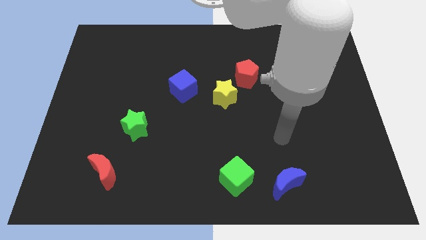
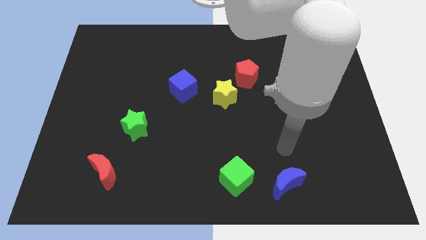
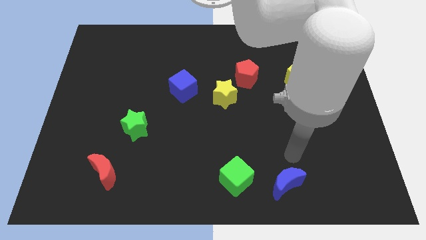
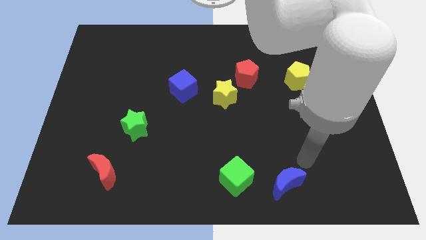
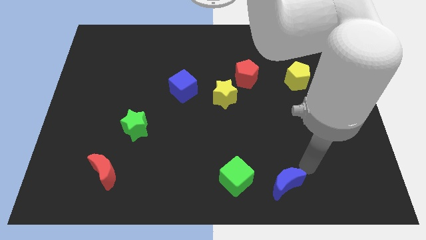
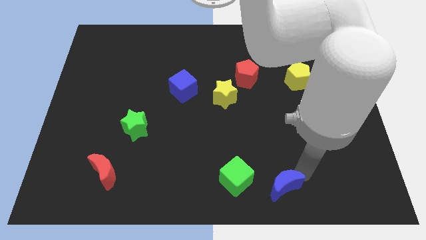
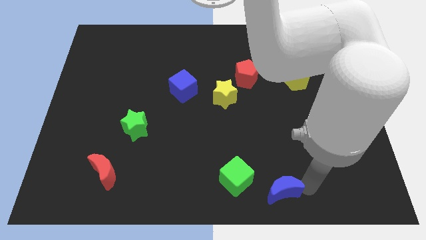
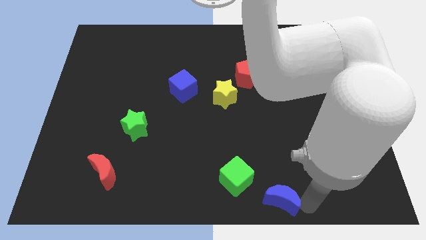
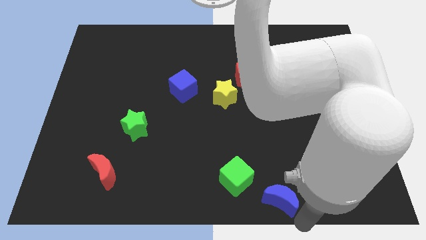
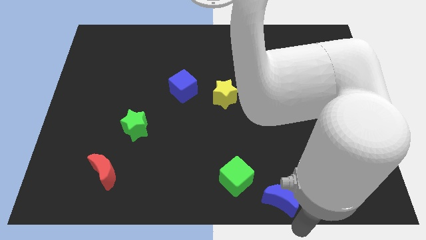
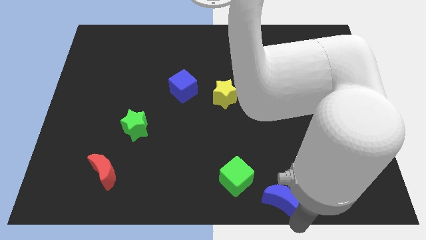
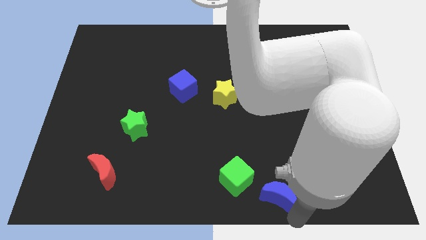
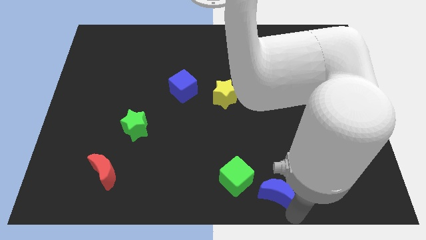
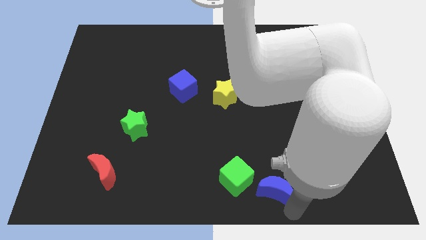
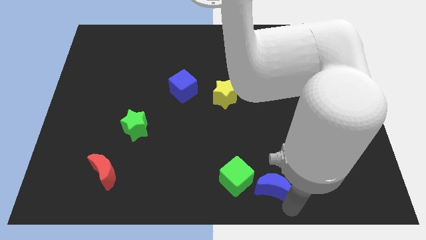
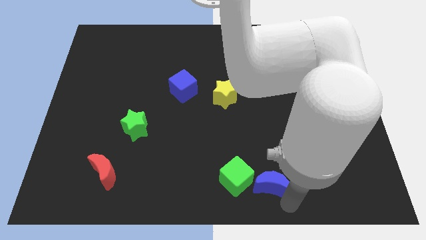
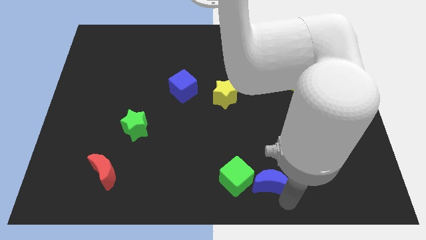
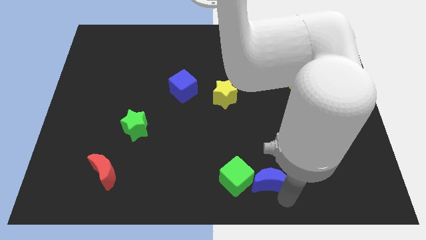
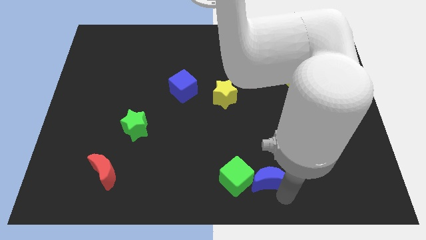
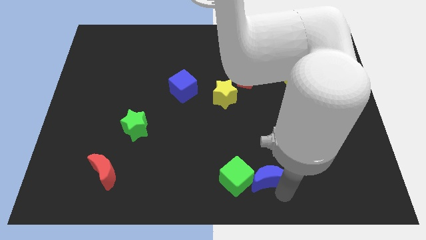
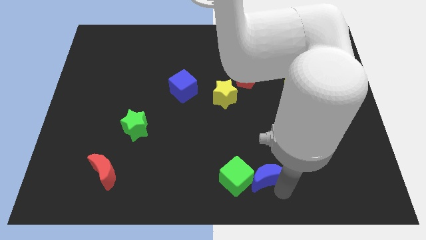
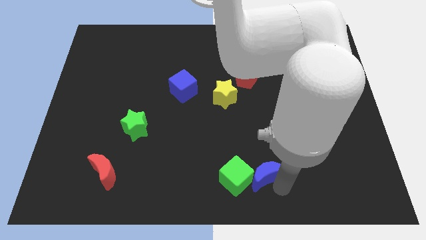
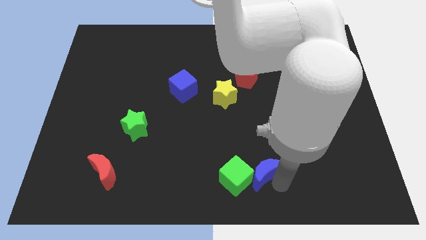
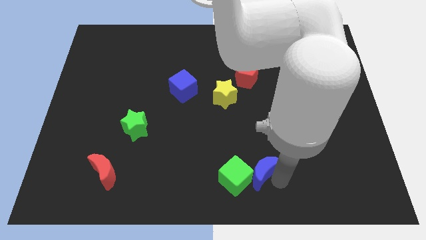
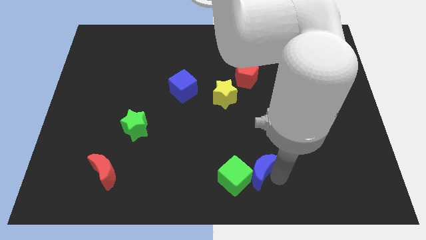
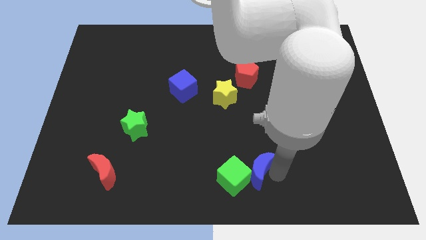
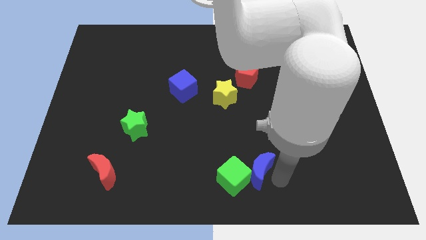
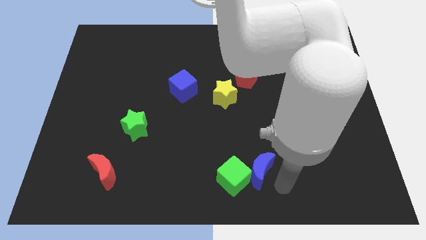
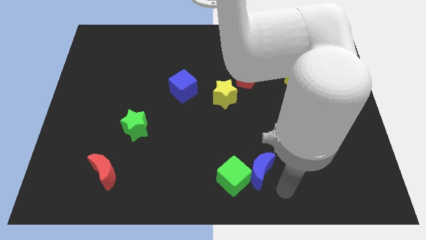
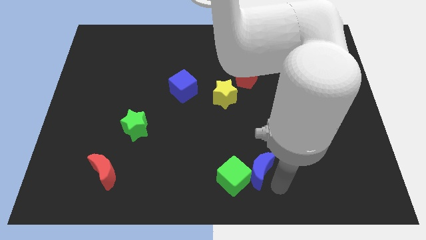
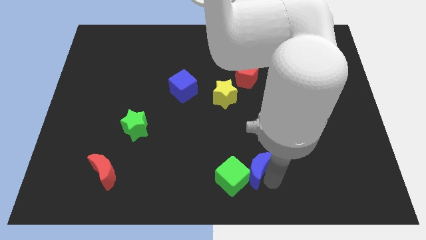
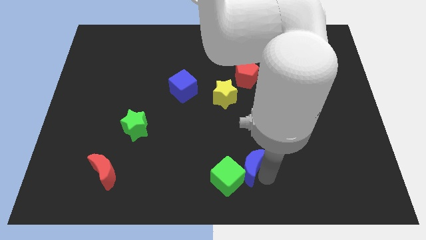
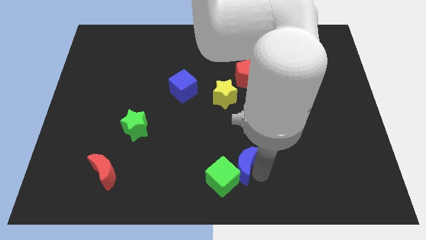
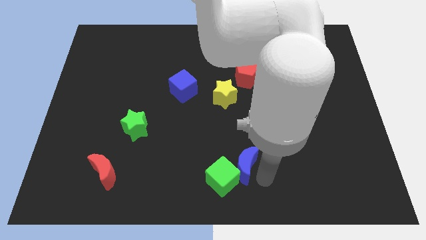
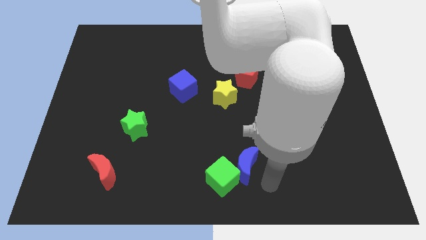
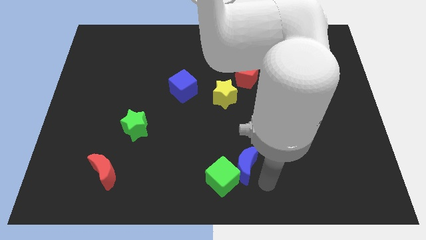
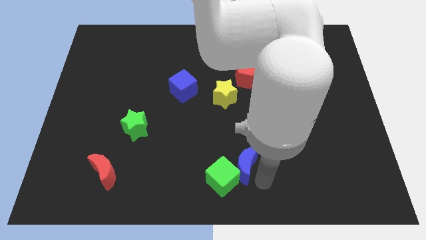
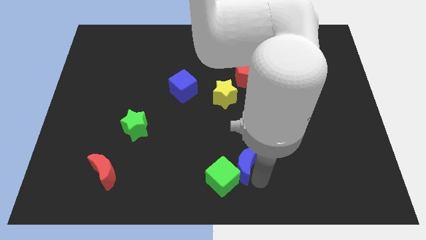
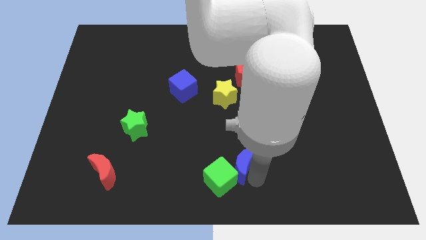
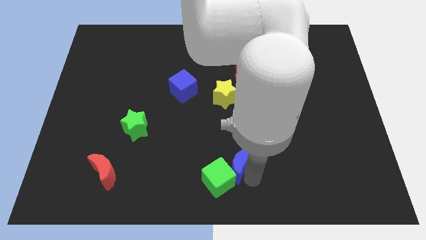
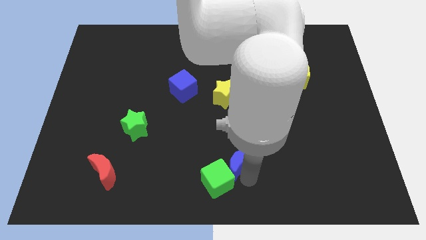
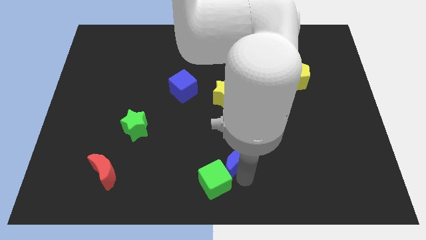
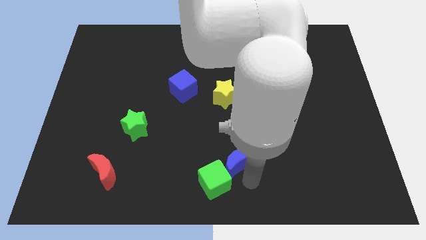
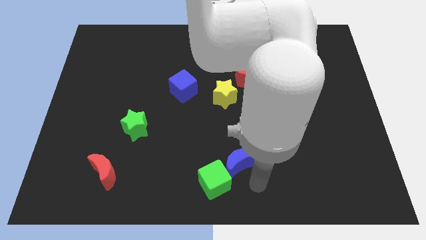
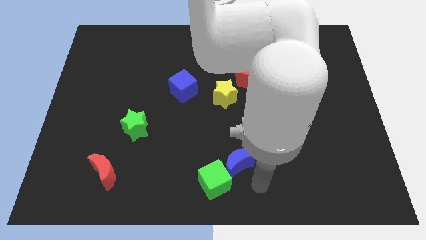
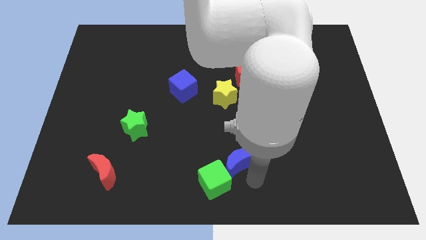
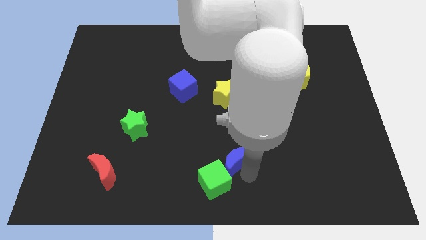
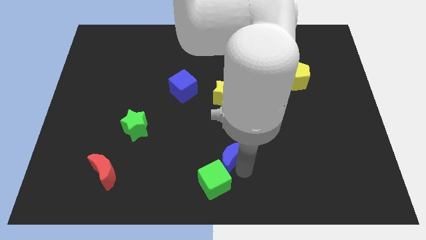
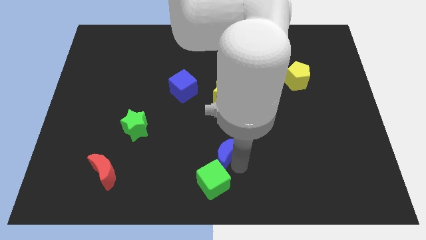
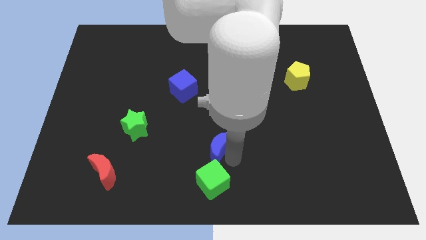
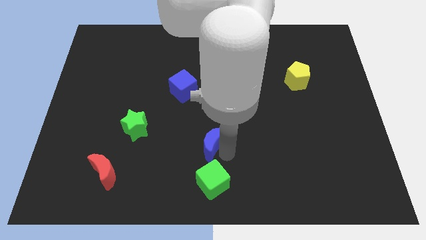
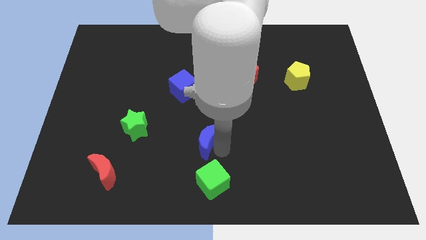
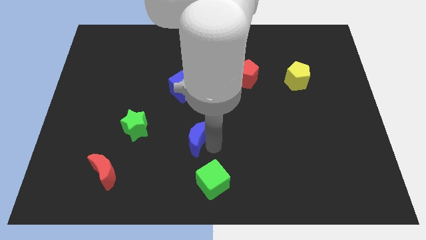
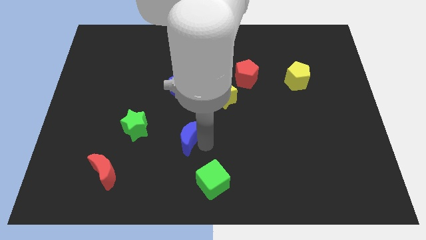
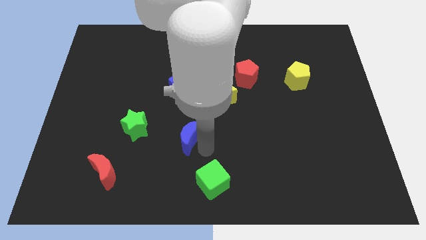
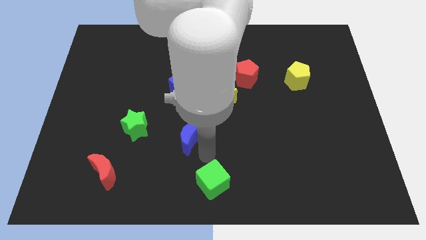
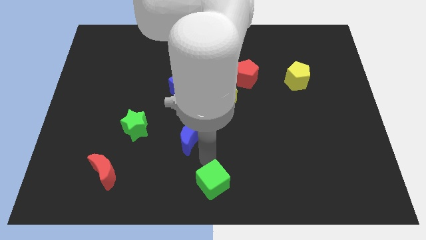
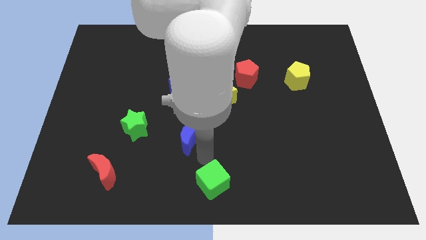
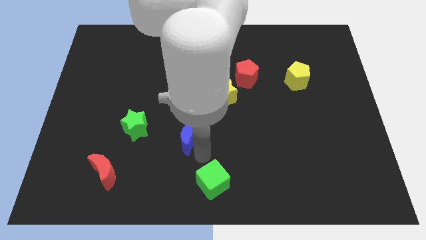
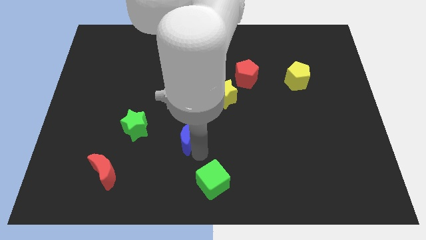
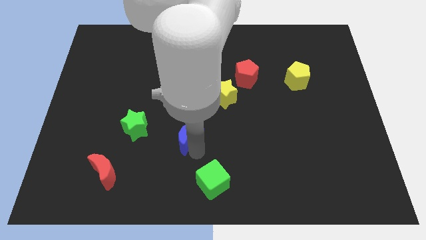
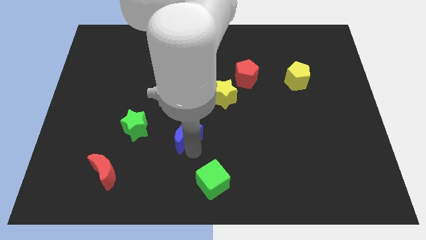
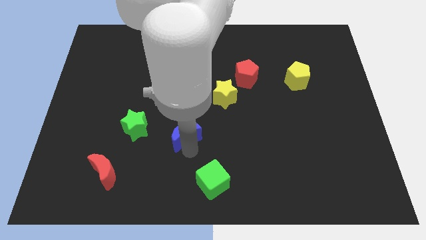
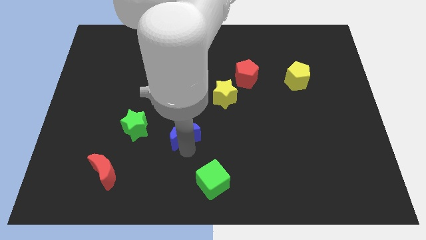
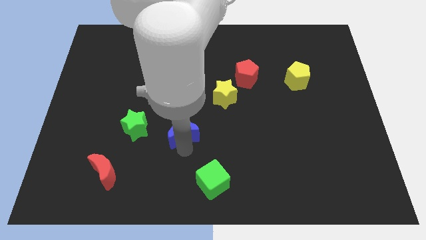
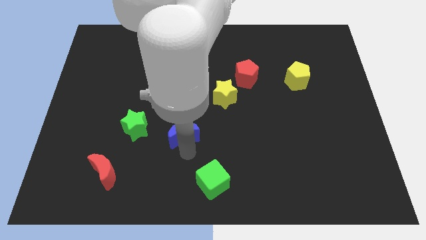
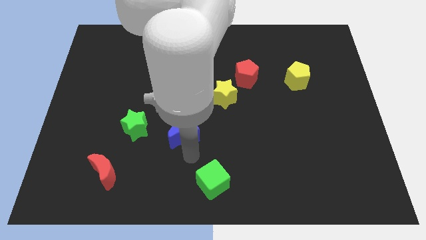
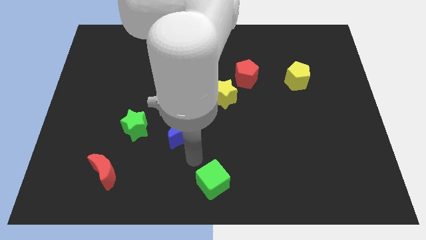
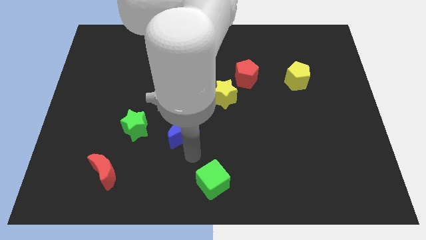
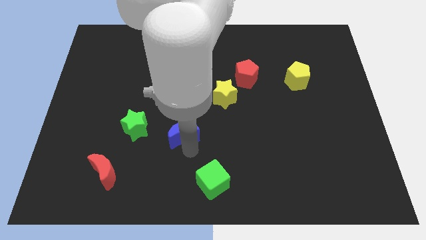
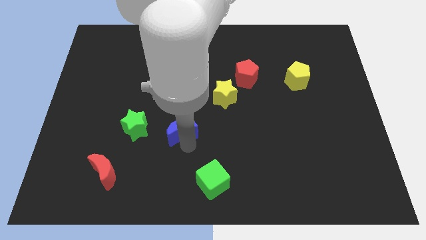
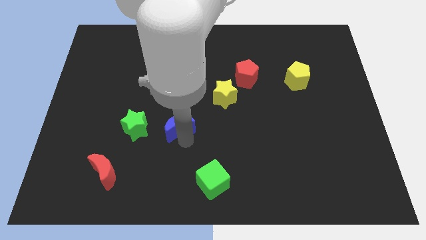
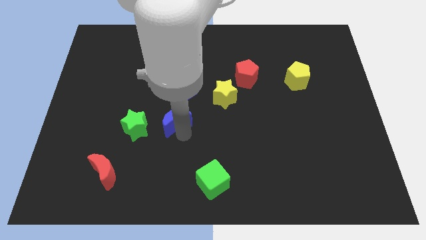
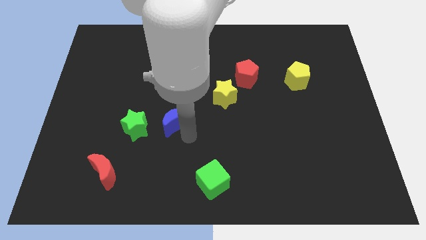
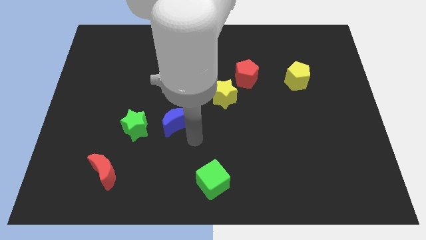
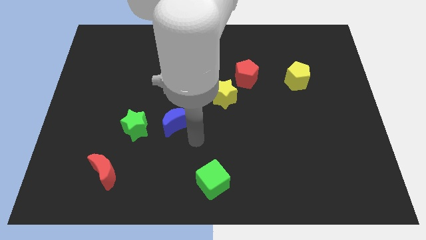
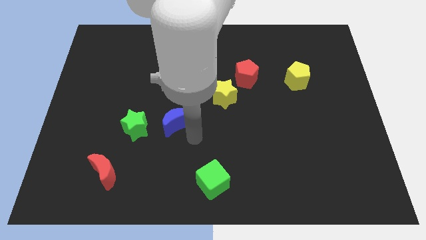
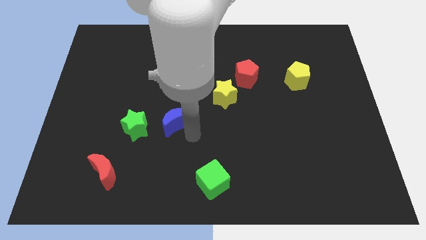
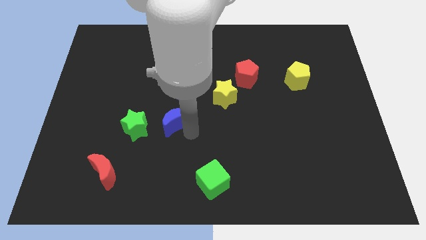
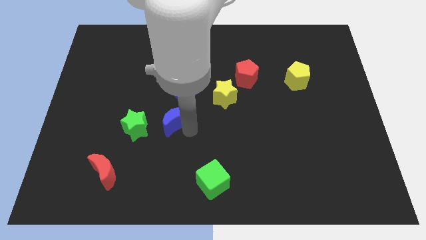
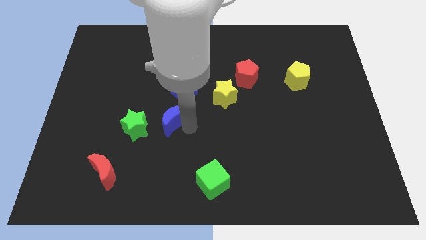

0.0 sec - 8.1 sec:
move the blue moon to the top right of the green star
